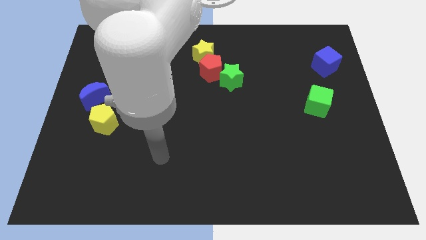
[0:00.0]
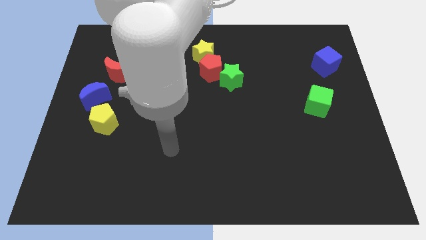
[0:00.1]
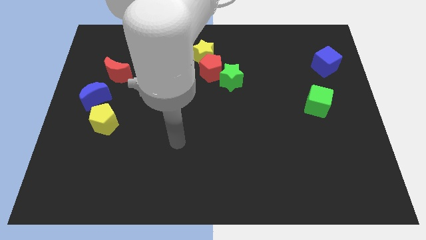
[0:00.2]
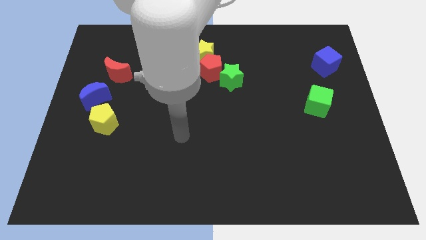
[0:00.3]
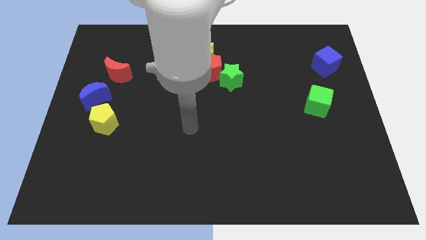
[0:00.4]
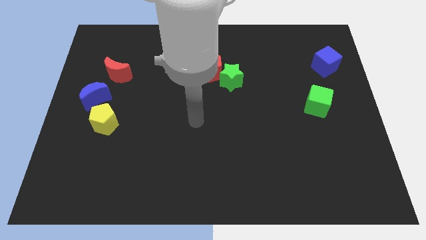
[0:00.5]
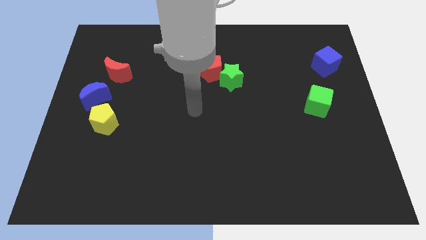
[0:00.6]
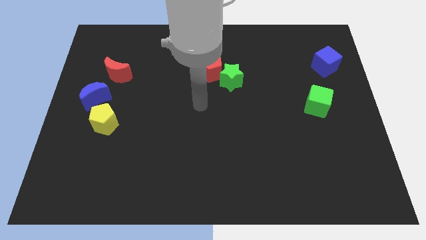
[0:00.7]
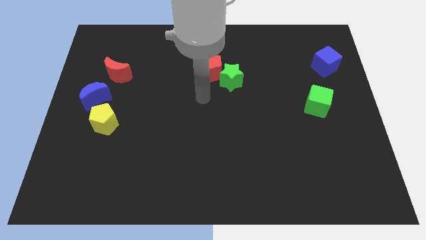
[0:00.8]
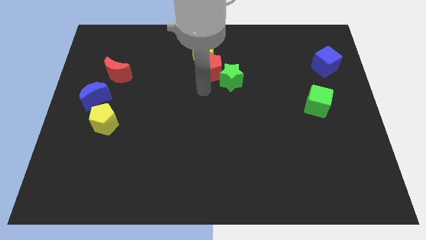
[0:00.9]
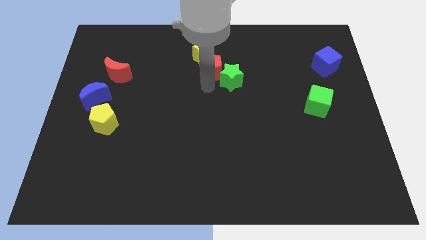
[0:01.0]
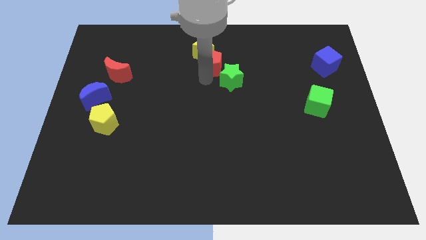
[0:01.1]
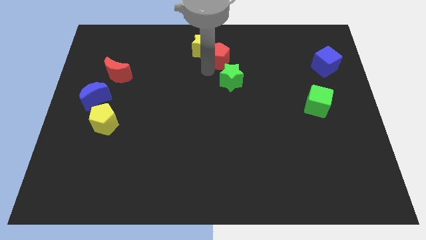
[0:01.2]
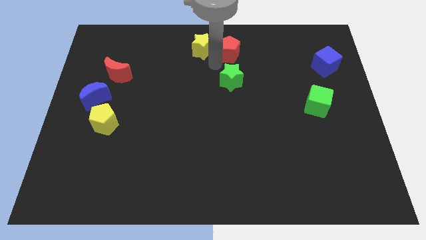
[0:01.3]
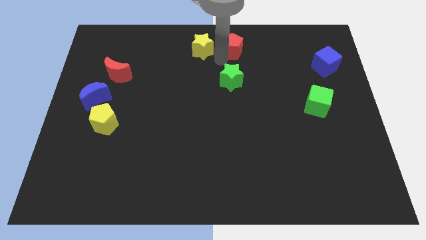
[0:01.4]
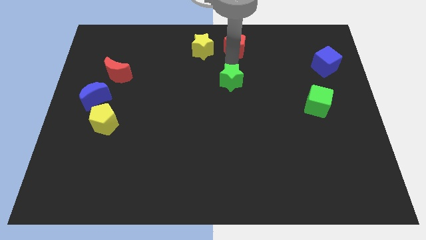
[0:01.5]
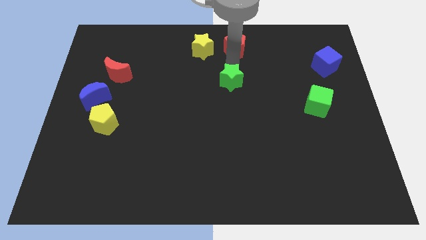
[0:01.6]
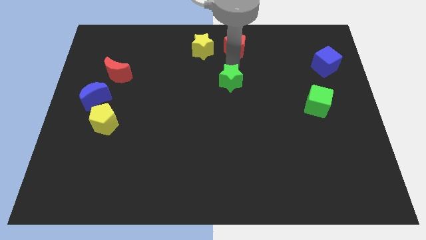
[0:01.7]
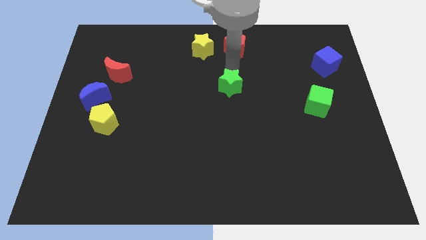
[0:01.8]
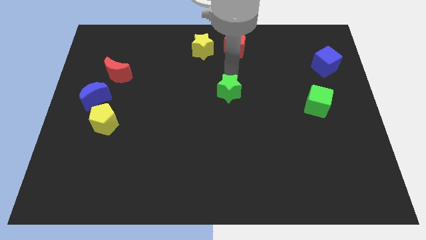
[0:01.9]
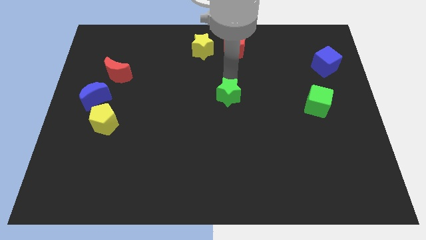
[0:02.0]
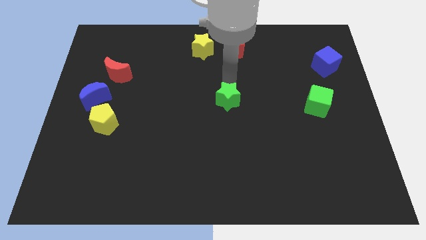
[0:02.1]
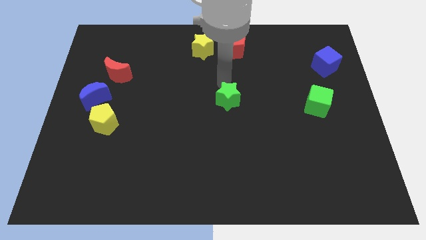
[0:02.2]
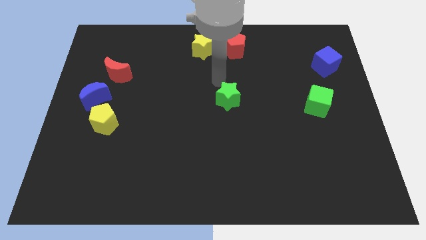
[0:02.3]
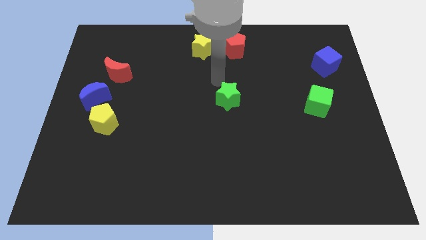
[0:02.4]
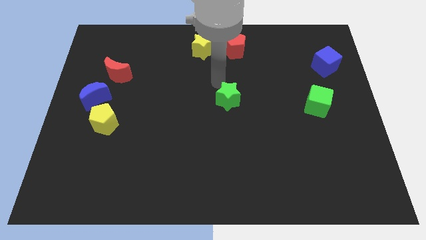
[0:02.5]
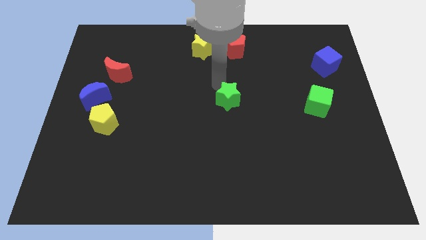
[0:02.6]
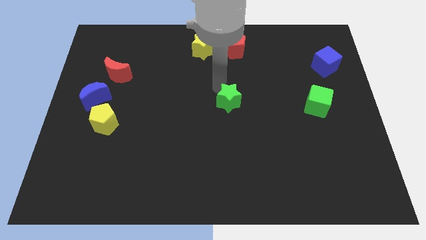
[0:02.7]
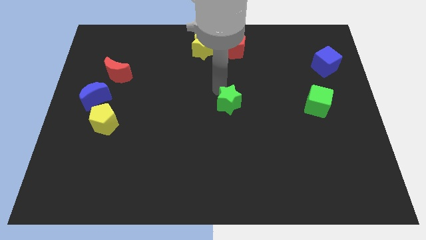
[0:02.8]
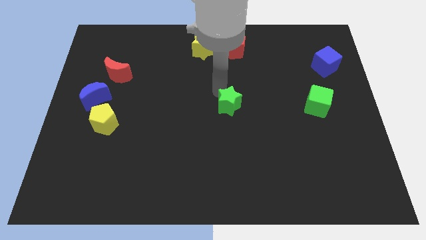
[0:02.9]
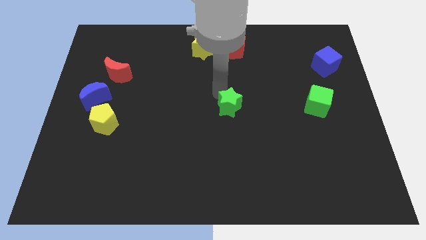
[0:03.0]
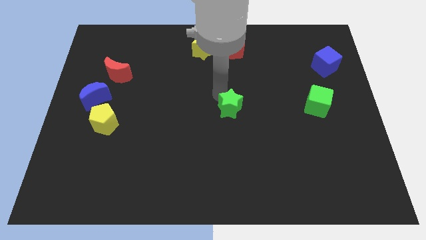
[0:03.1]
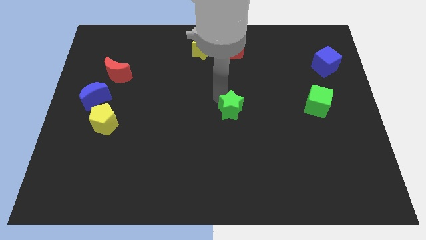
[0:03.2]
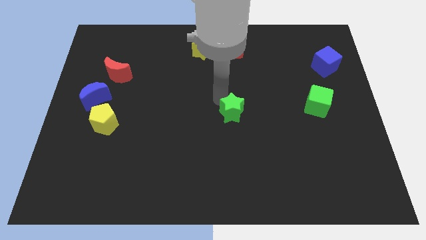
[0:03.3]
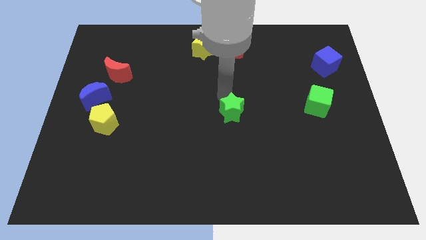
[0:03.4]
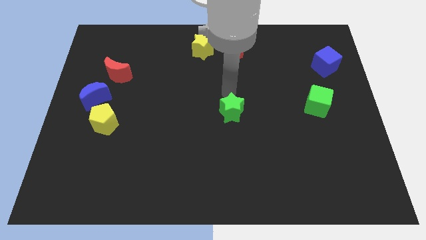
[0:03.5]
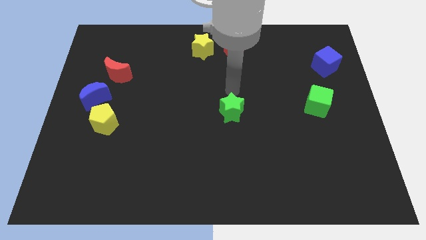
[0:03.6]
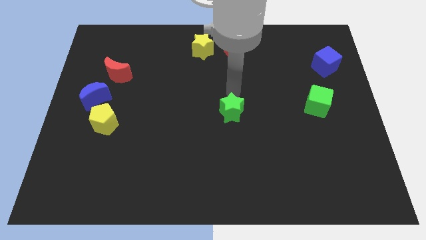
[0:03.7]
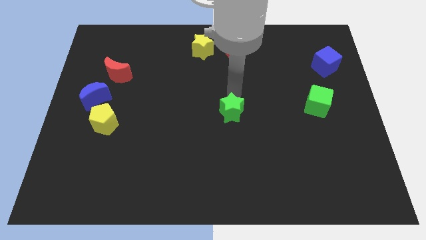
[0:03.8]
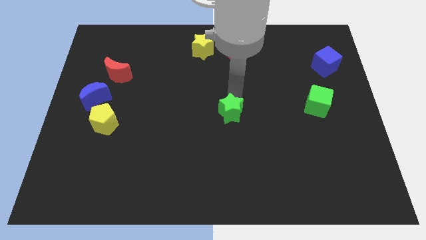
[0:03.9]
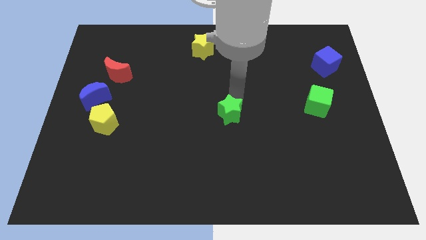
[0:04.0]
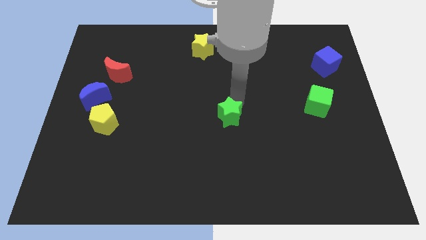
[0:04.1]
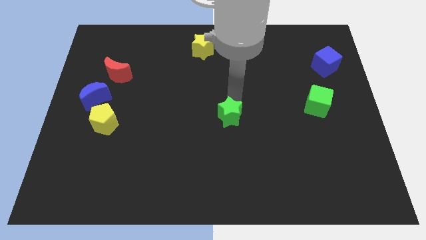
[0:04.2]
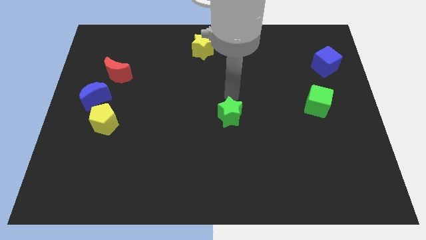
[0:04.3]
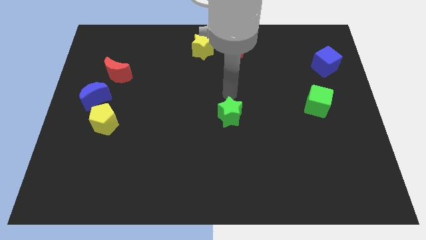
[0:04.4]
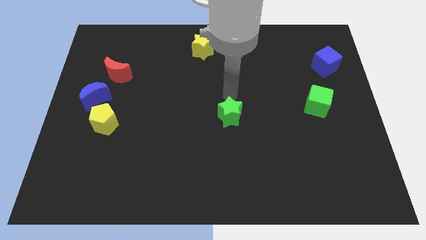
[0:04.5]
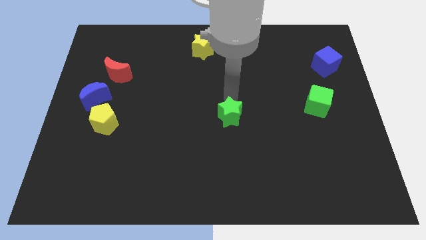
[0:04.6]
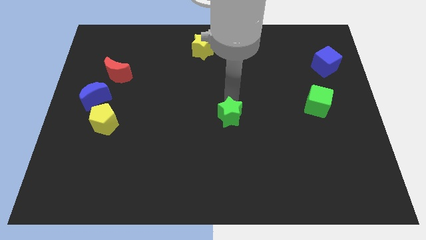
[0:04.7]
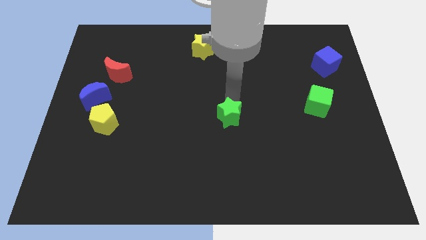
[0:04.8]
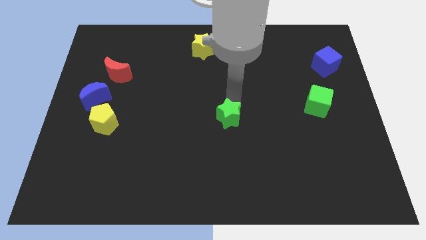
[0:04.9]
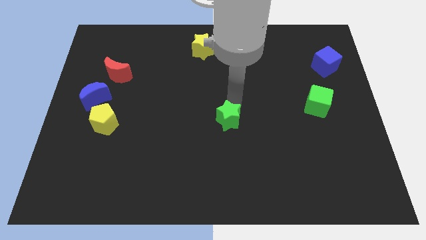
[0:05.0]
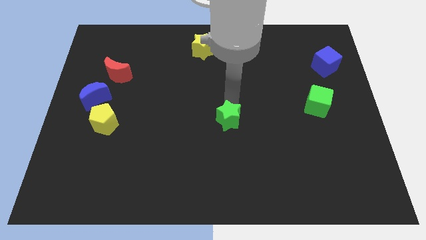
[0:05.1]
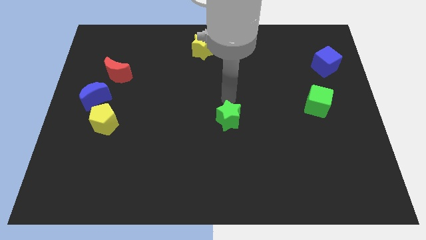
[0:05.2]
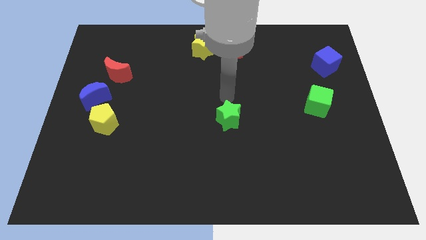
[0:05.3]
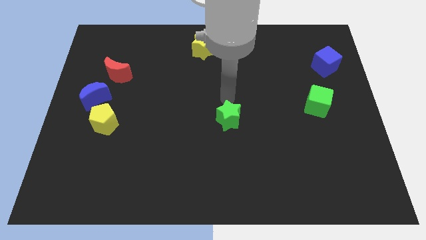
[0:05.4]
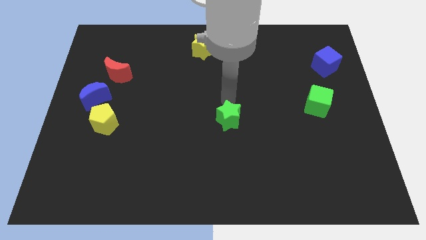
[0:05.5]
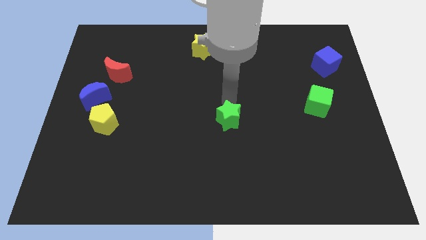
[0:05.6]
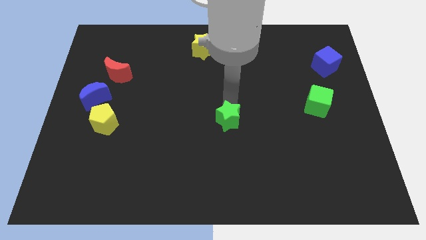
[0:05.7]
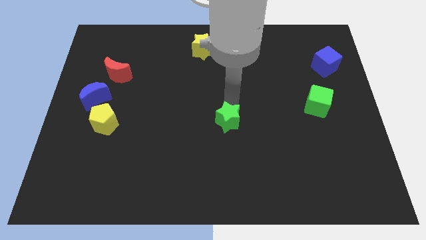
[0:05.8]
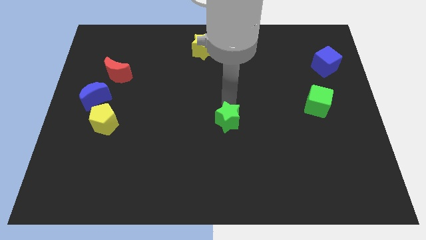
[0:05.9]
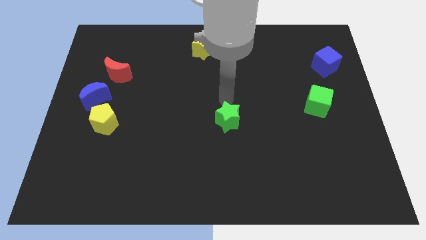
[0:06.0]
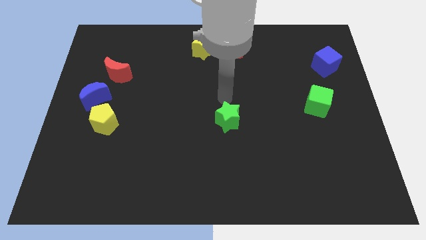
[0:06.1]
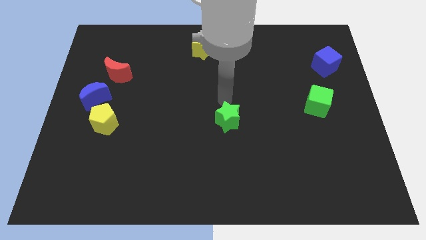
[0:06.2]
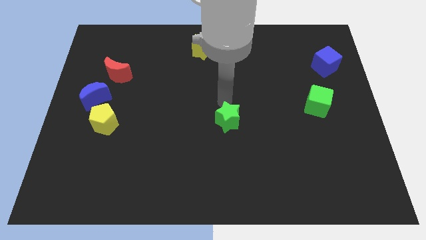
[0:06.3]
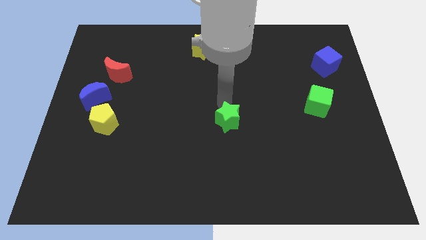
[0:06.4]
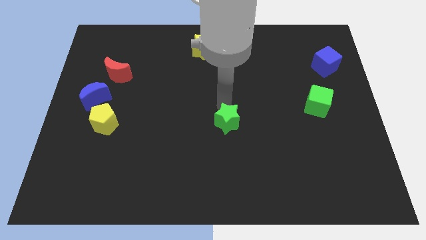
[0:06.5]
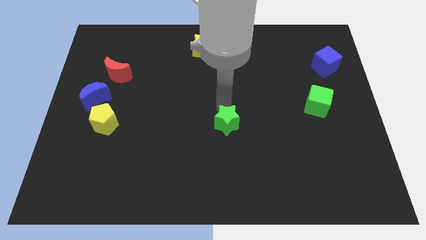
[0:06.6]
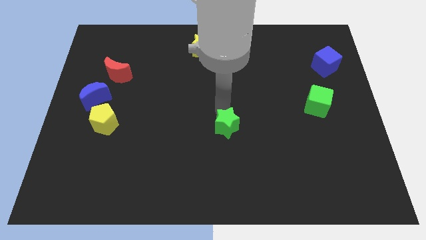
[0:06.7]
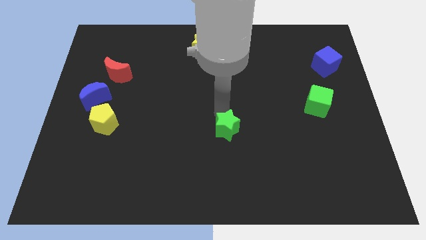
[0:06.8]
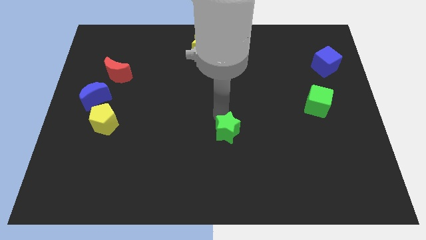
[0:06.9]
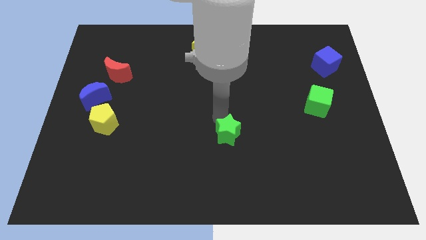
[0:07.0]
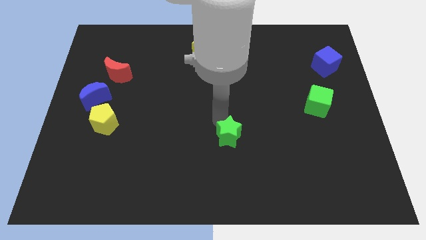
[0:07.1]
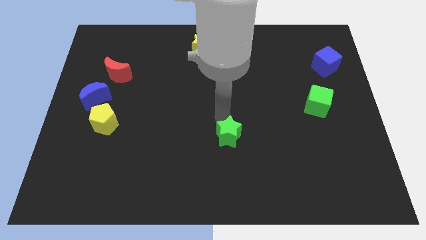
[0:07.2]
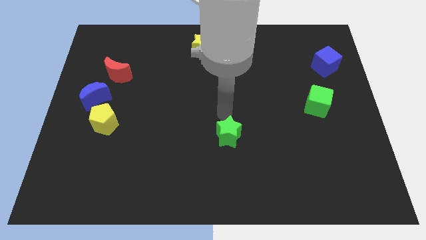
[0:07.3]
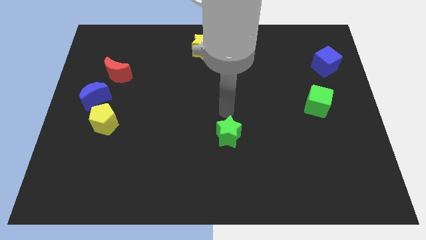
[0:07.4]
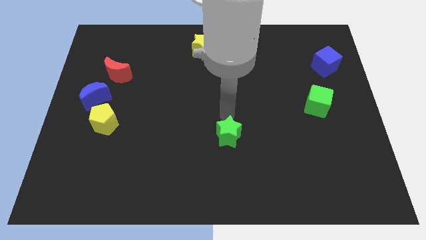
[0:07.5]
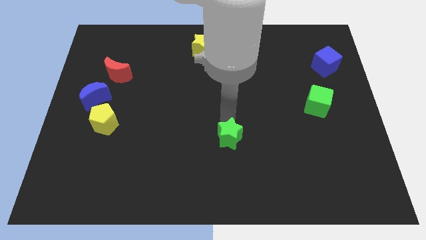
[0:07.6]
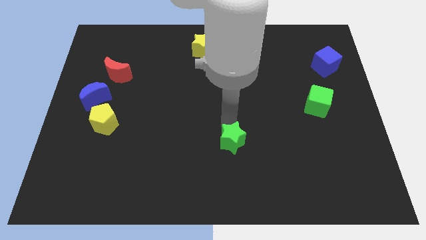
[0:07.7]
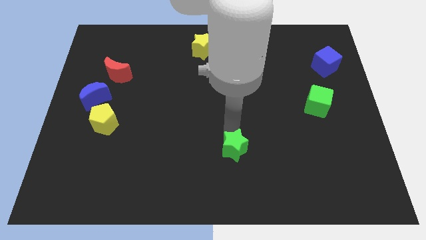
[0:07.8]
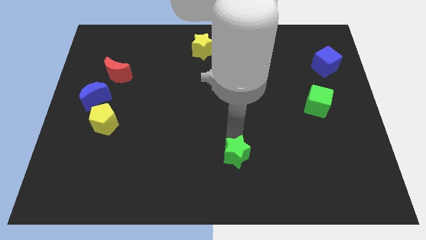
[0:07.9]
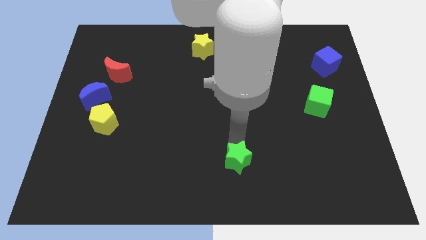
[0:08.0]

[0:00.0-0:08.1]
slide the green star to the bottom side
